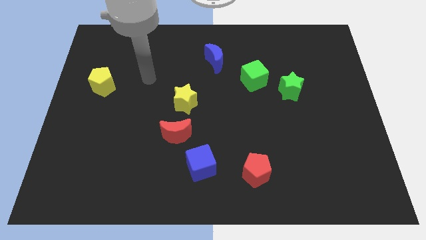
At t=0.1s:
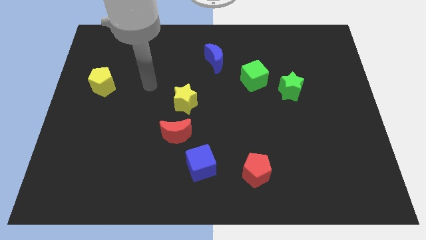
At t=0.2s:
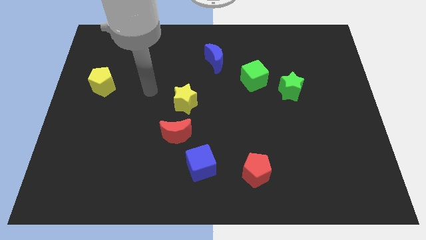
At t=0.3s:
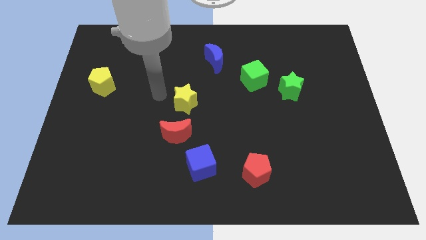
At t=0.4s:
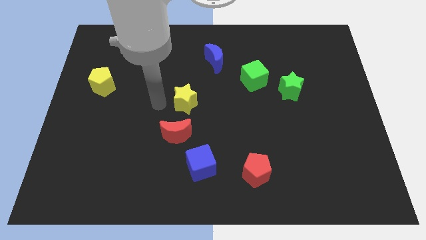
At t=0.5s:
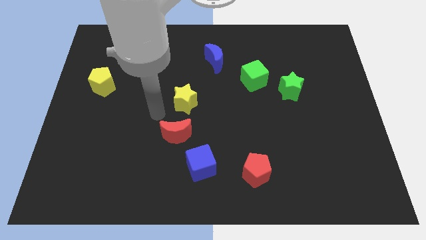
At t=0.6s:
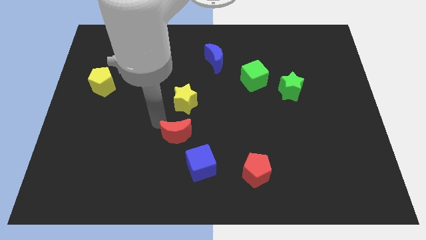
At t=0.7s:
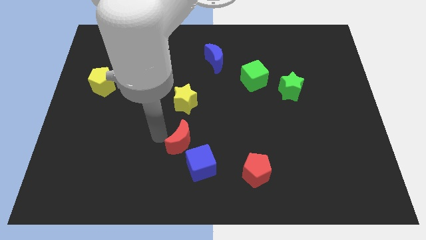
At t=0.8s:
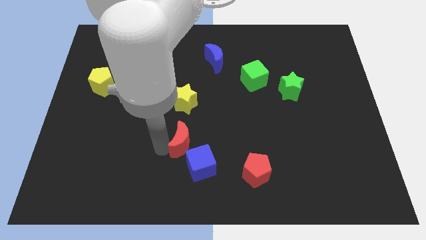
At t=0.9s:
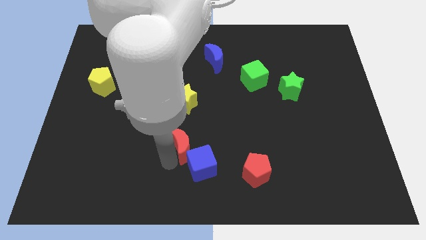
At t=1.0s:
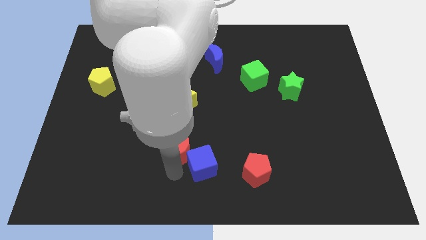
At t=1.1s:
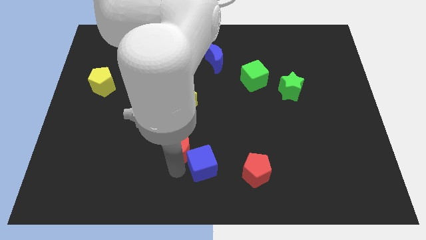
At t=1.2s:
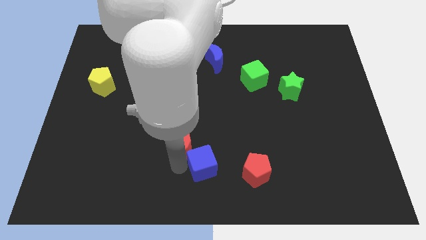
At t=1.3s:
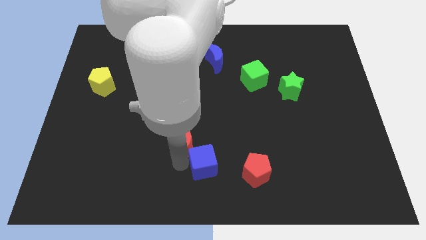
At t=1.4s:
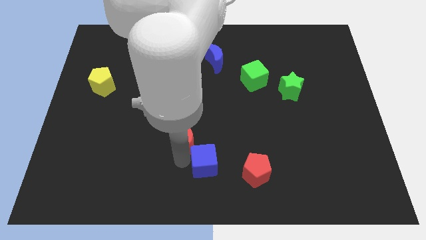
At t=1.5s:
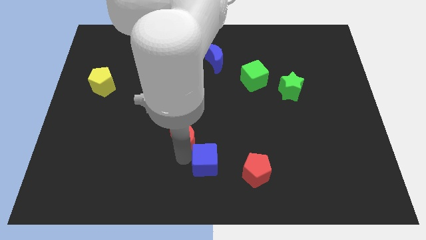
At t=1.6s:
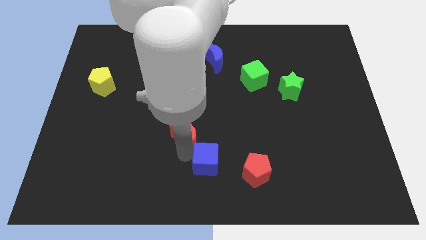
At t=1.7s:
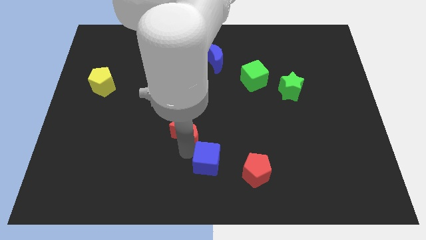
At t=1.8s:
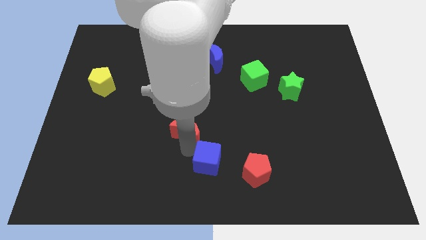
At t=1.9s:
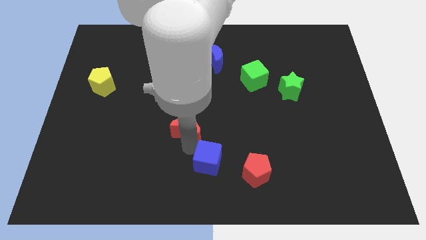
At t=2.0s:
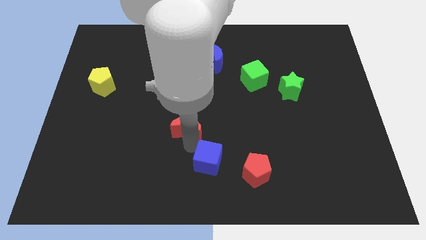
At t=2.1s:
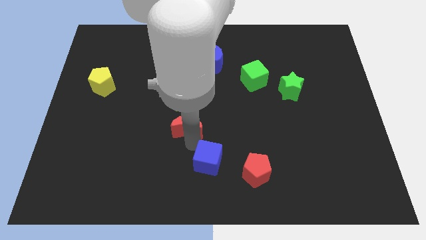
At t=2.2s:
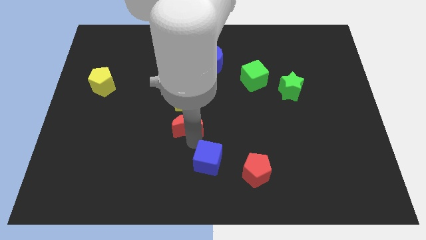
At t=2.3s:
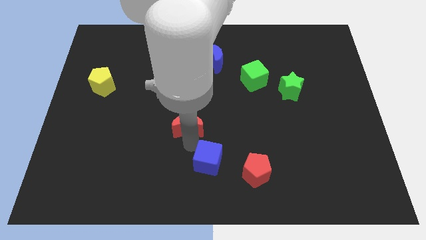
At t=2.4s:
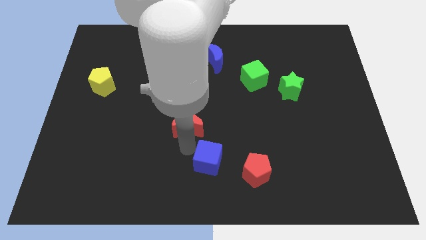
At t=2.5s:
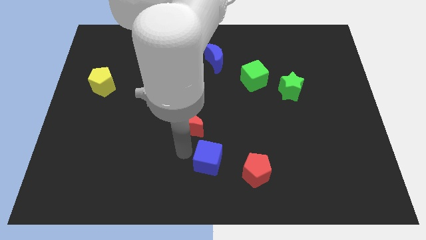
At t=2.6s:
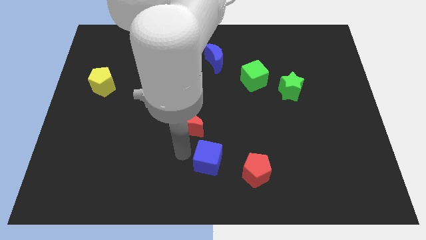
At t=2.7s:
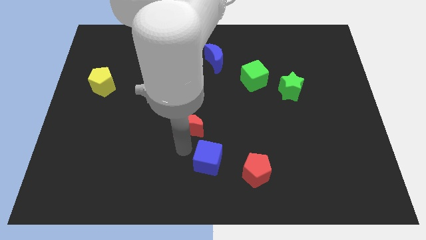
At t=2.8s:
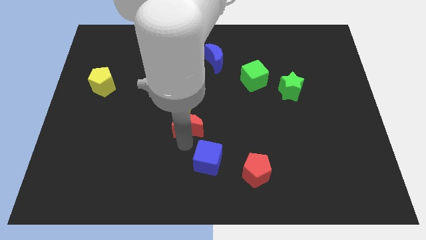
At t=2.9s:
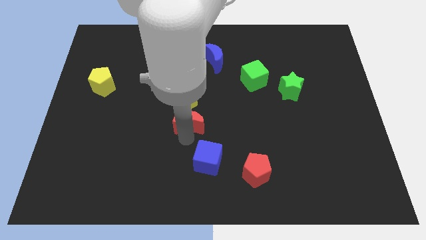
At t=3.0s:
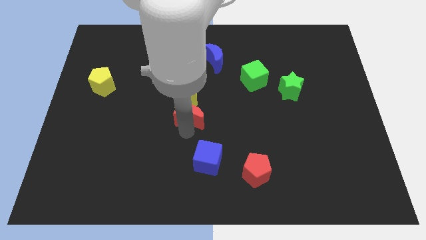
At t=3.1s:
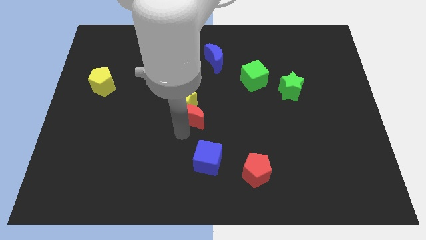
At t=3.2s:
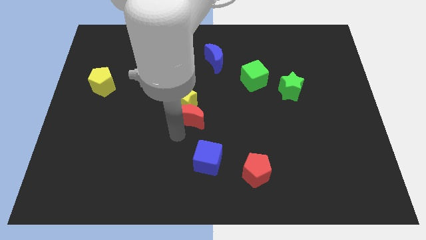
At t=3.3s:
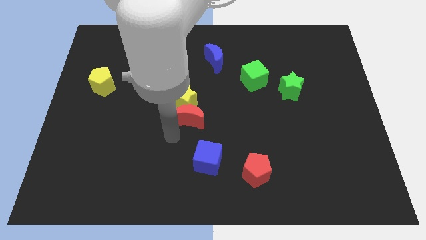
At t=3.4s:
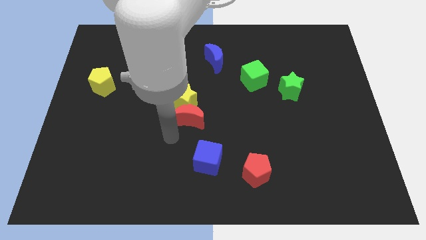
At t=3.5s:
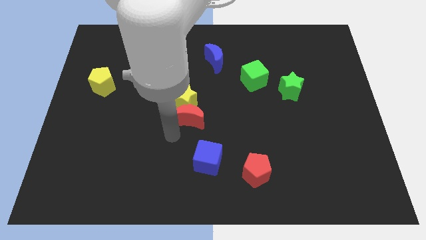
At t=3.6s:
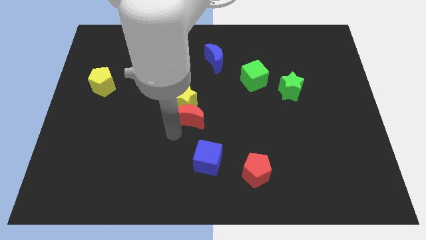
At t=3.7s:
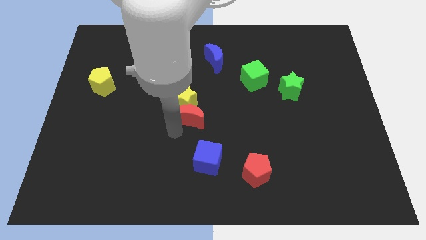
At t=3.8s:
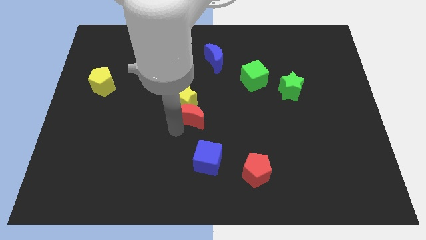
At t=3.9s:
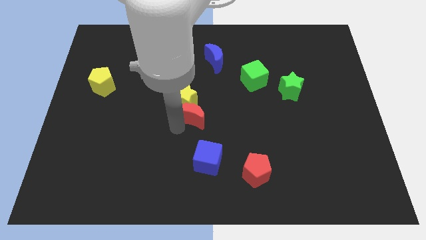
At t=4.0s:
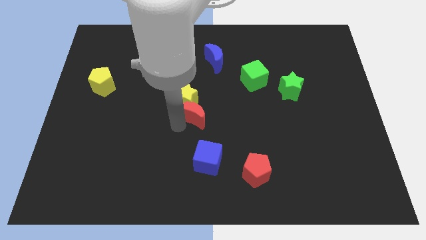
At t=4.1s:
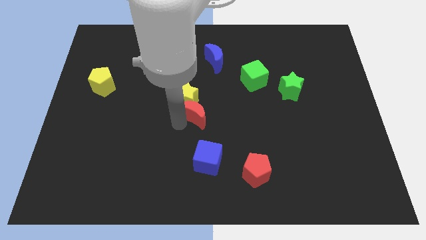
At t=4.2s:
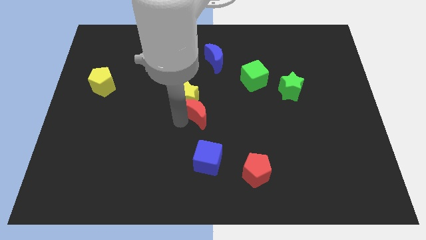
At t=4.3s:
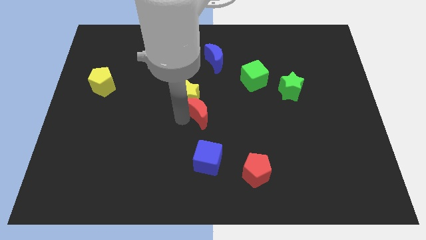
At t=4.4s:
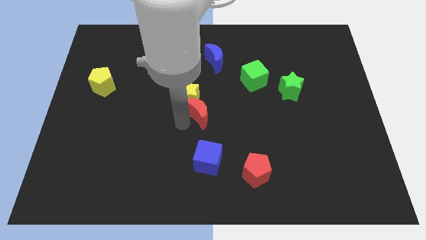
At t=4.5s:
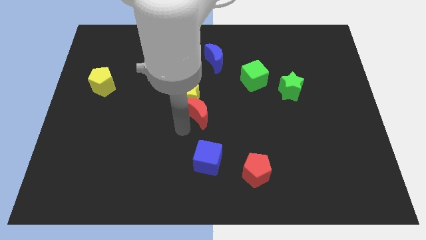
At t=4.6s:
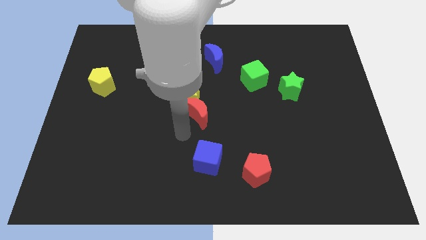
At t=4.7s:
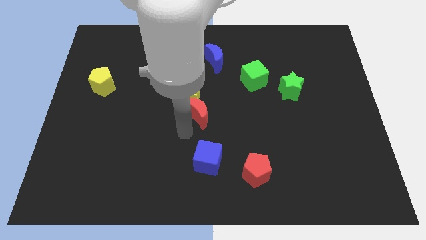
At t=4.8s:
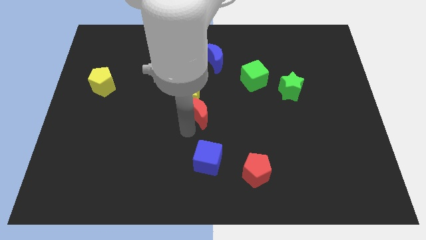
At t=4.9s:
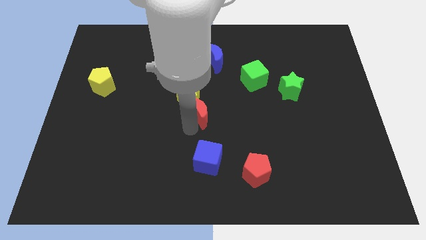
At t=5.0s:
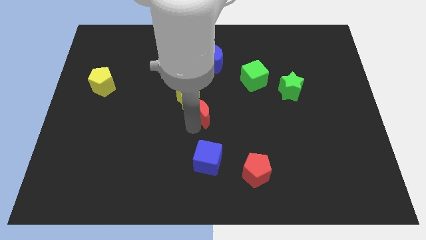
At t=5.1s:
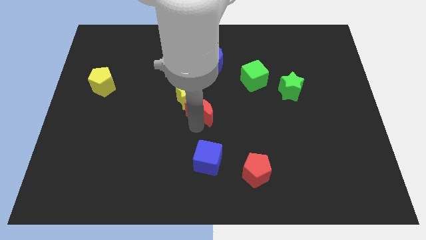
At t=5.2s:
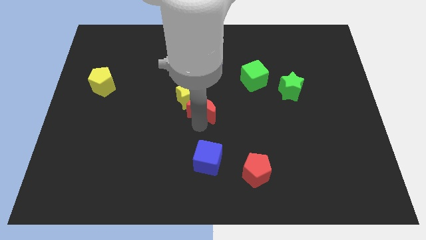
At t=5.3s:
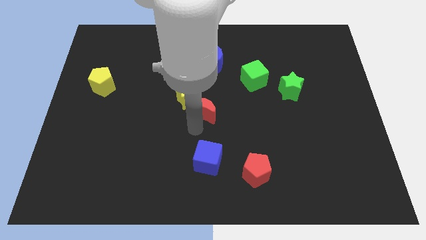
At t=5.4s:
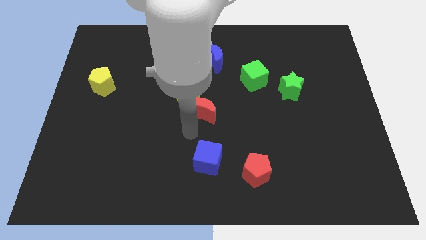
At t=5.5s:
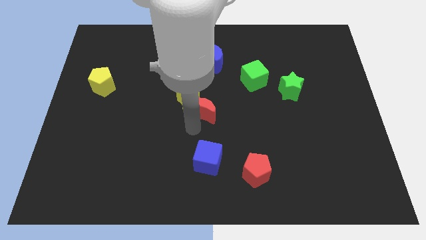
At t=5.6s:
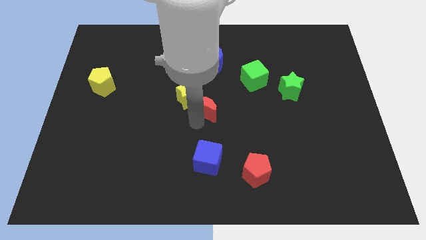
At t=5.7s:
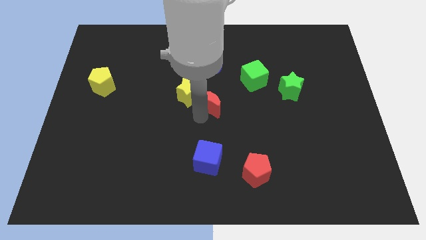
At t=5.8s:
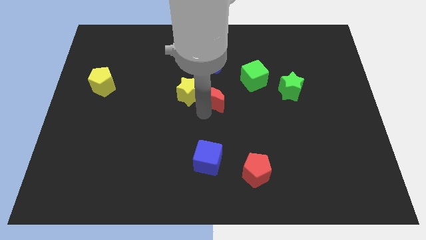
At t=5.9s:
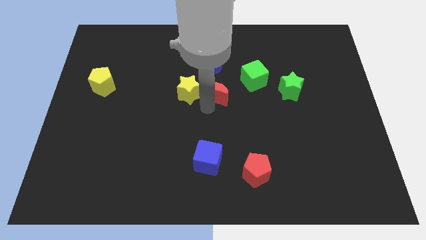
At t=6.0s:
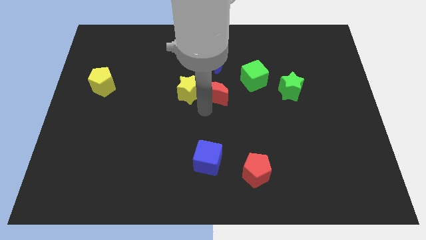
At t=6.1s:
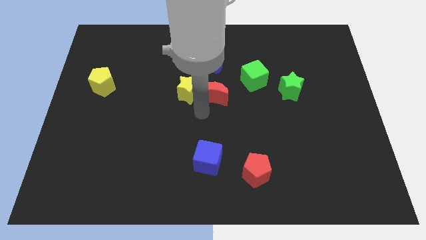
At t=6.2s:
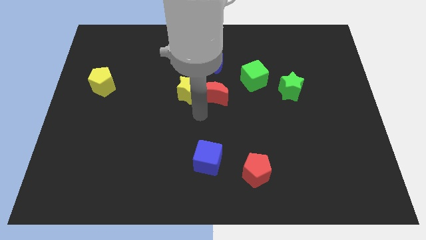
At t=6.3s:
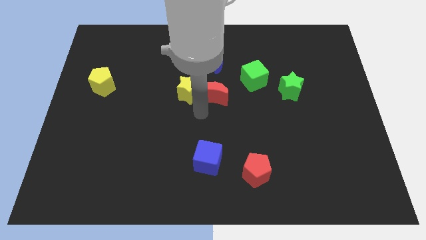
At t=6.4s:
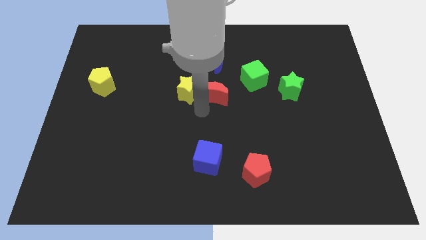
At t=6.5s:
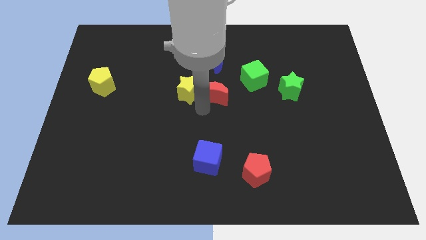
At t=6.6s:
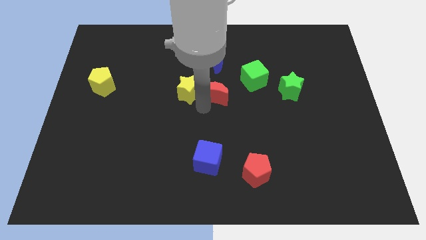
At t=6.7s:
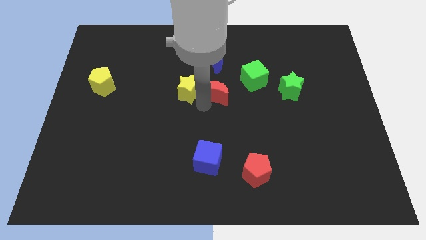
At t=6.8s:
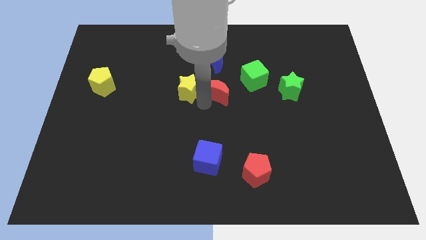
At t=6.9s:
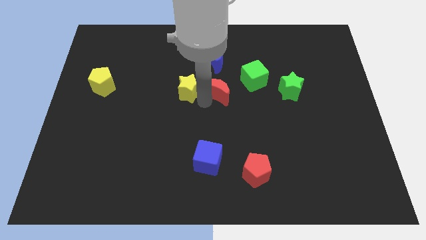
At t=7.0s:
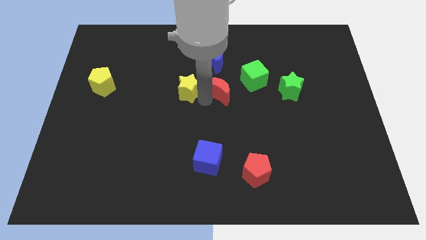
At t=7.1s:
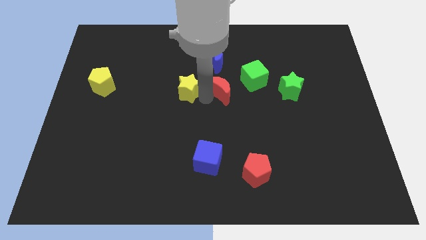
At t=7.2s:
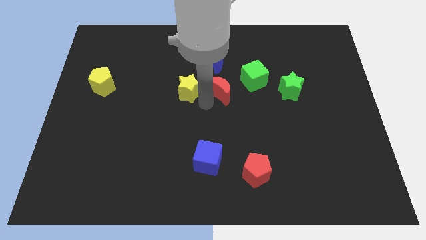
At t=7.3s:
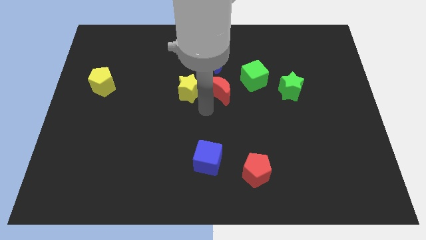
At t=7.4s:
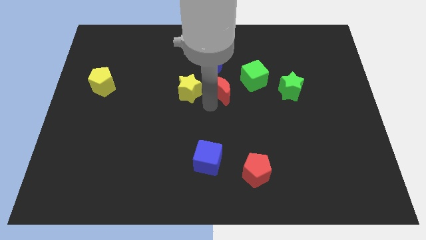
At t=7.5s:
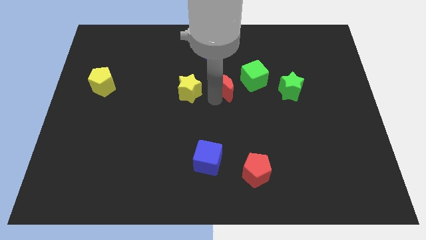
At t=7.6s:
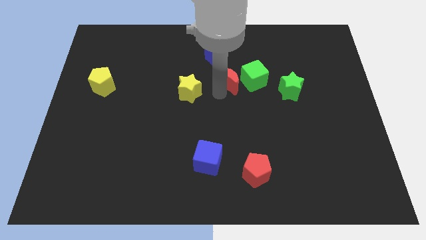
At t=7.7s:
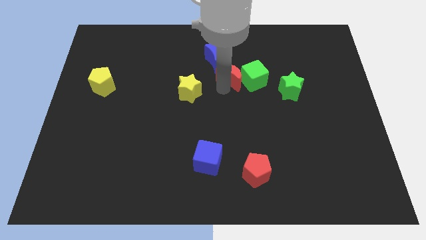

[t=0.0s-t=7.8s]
move the red moon up and to the right

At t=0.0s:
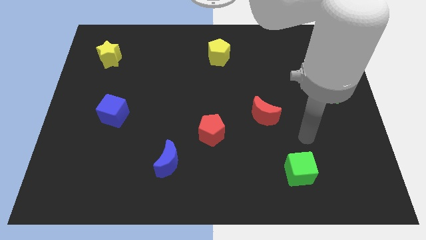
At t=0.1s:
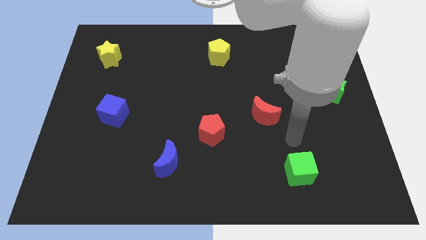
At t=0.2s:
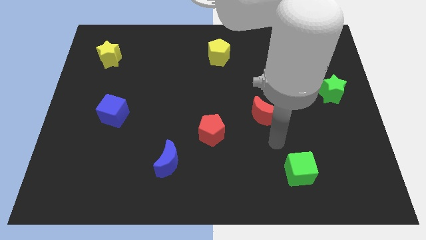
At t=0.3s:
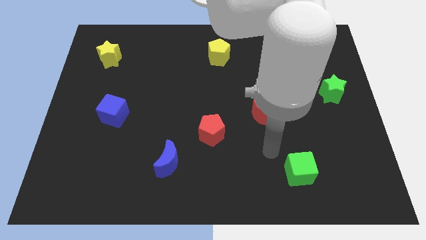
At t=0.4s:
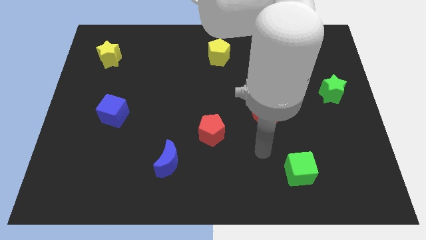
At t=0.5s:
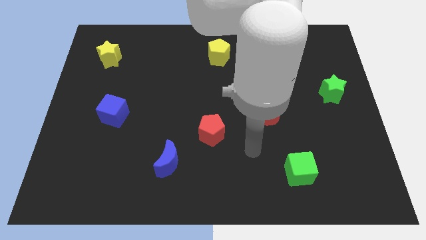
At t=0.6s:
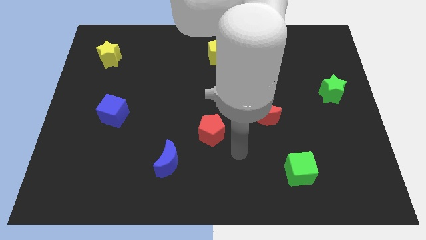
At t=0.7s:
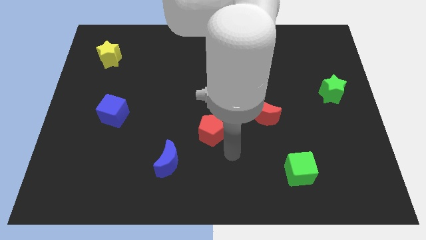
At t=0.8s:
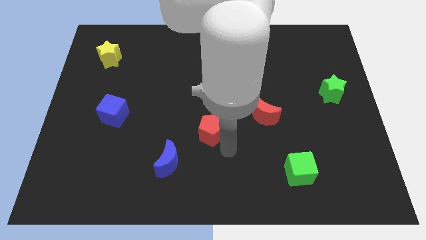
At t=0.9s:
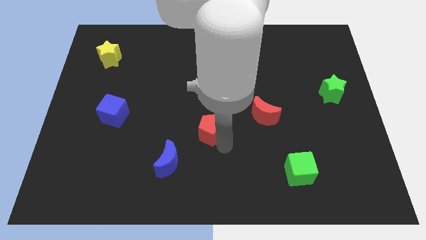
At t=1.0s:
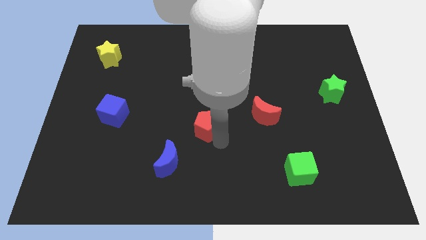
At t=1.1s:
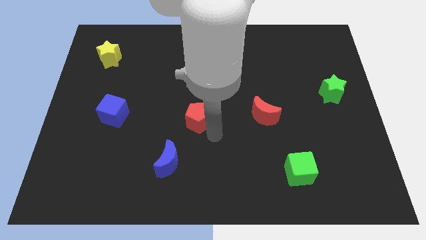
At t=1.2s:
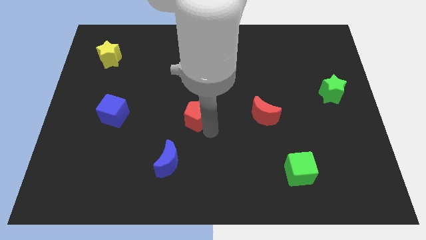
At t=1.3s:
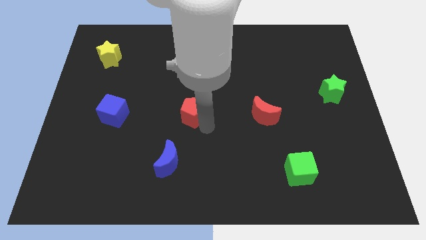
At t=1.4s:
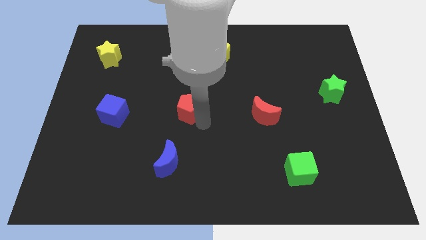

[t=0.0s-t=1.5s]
slightly slide the red pentagon diagonally up and left
